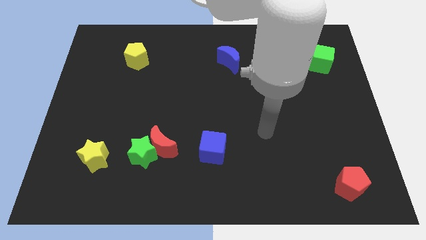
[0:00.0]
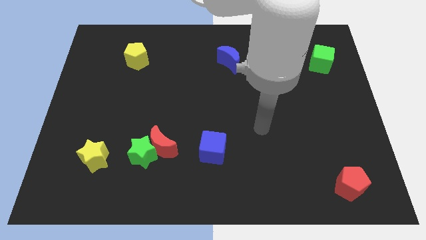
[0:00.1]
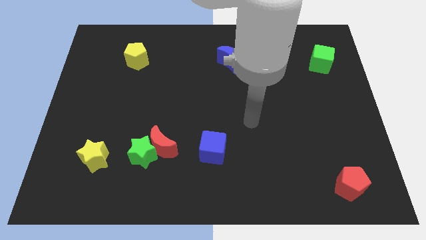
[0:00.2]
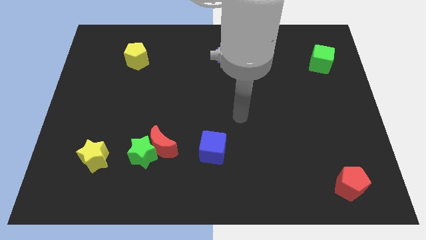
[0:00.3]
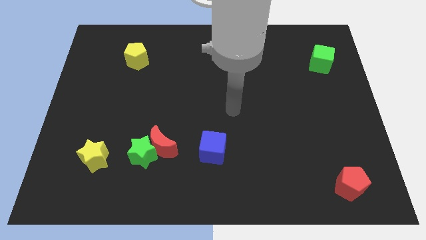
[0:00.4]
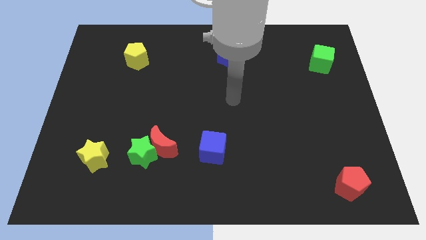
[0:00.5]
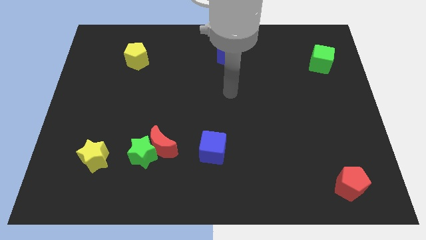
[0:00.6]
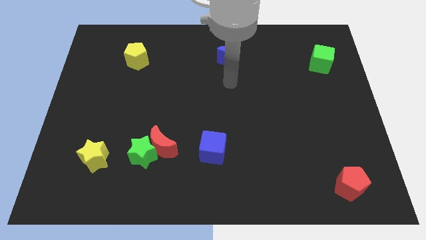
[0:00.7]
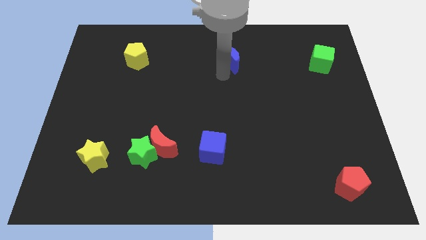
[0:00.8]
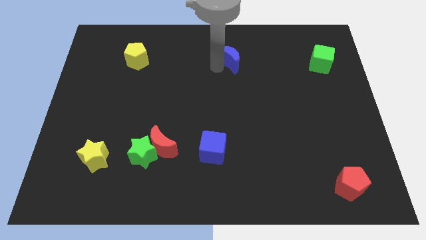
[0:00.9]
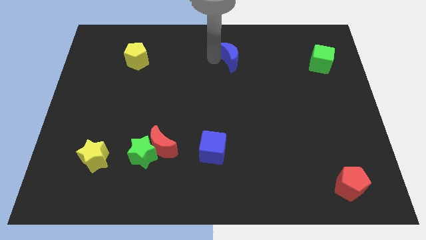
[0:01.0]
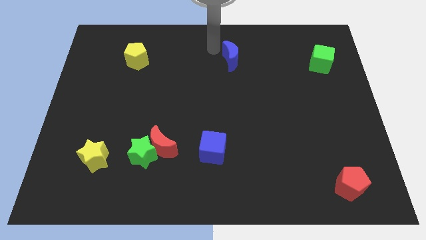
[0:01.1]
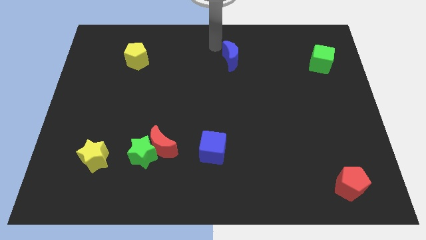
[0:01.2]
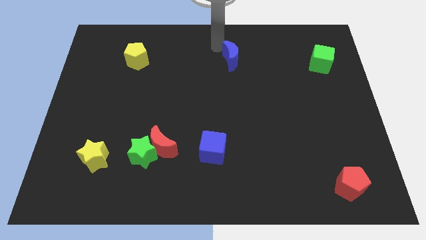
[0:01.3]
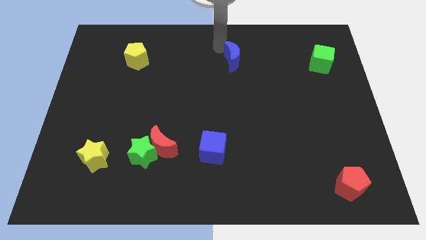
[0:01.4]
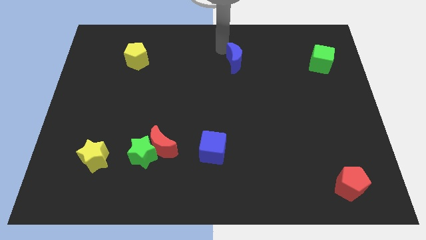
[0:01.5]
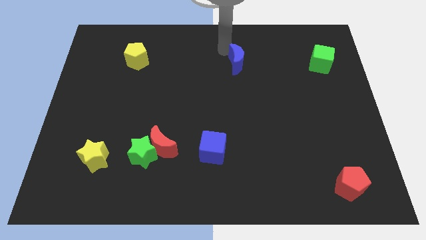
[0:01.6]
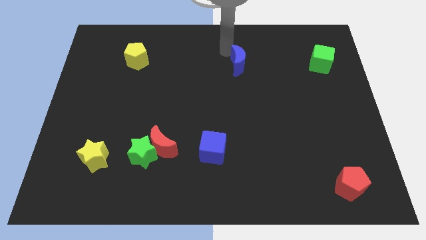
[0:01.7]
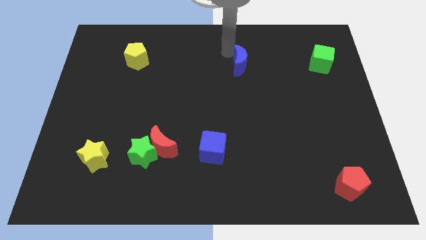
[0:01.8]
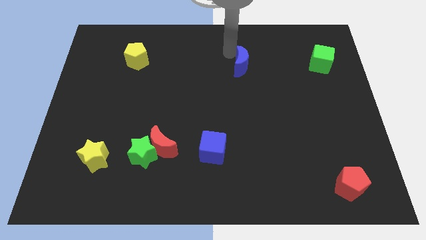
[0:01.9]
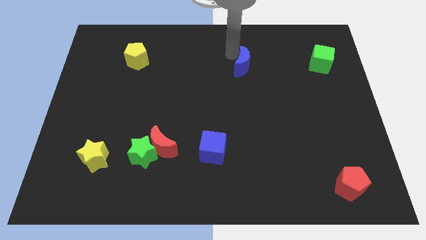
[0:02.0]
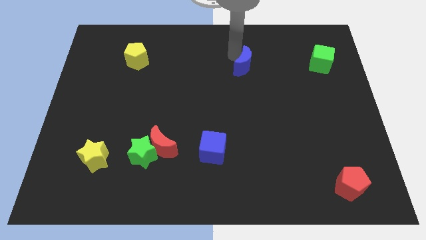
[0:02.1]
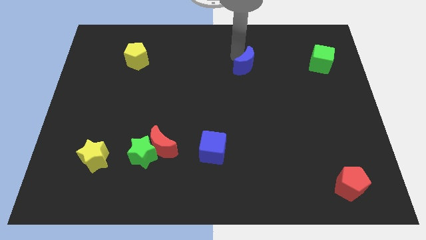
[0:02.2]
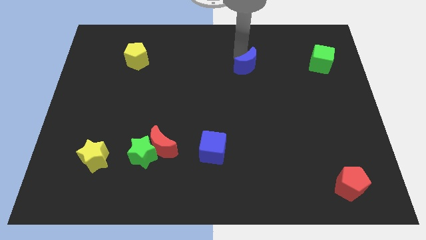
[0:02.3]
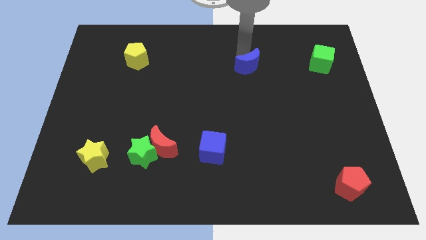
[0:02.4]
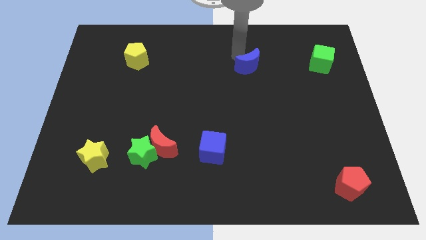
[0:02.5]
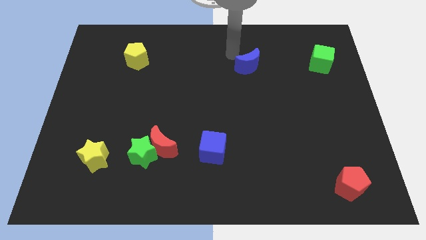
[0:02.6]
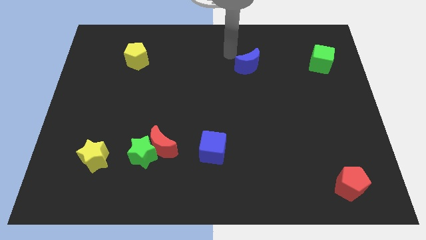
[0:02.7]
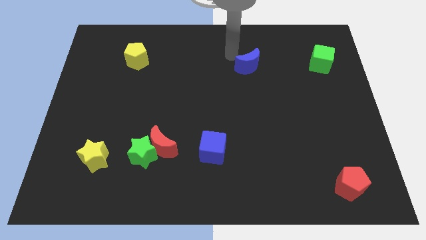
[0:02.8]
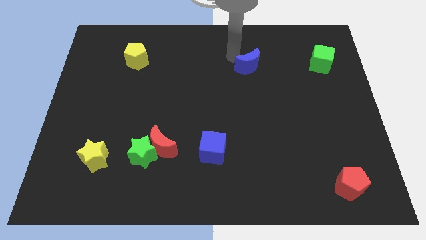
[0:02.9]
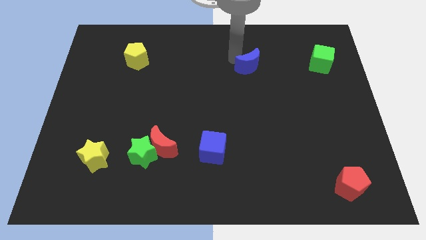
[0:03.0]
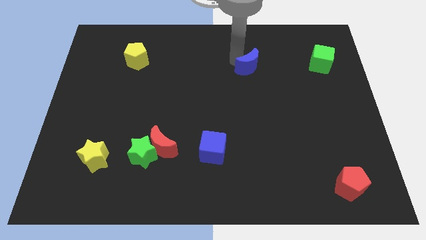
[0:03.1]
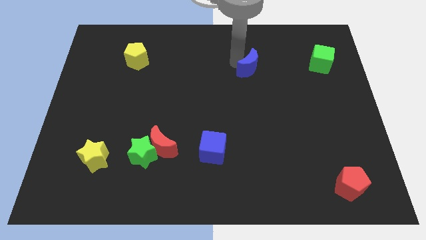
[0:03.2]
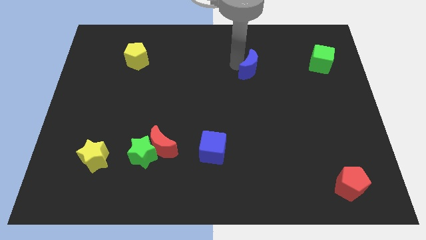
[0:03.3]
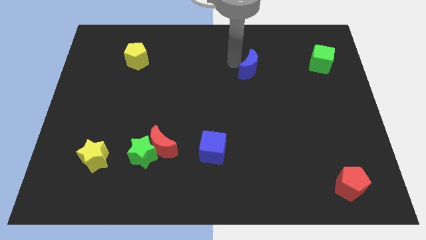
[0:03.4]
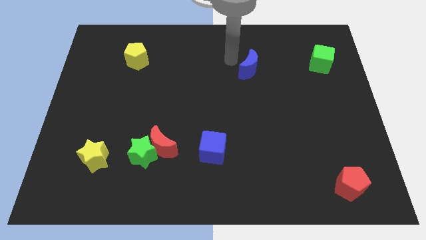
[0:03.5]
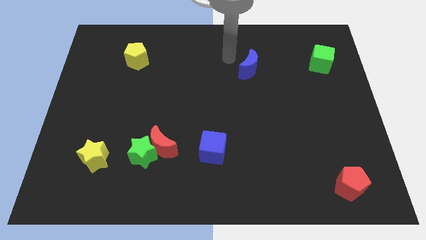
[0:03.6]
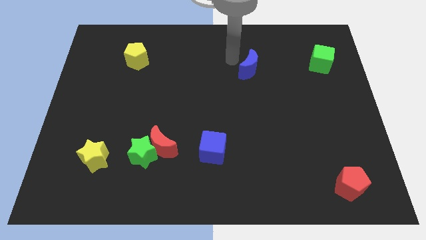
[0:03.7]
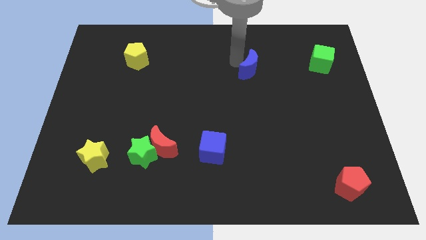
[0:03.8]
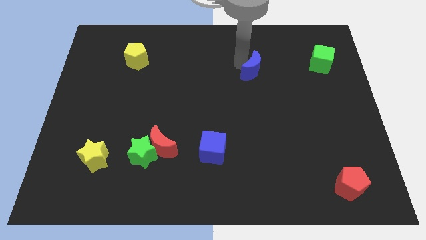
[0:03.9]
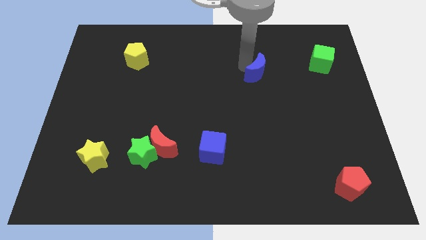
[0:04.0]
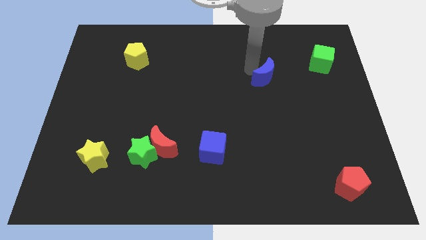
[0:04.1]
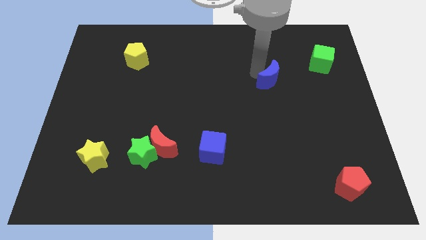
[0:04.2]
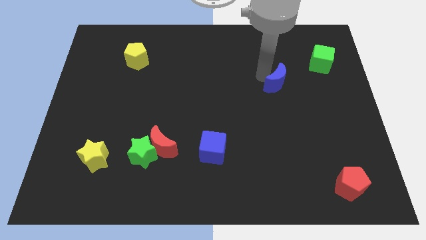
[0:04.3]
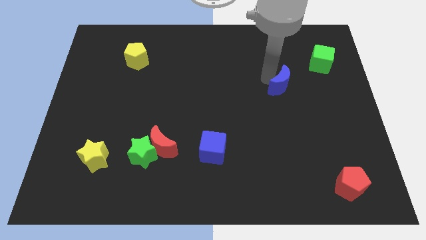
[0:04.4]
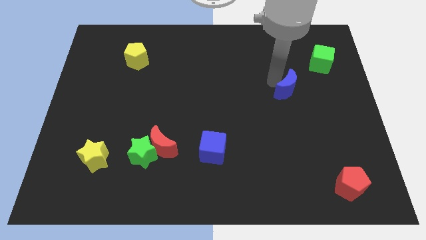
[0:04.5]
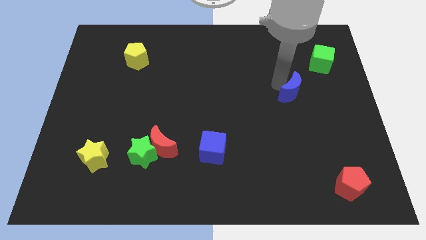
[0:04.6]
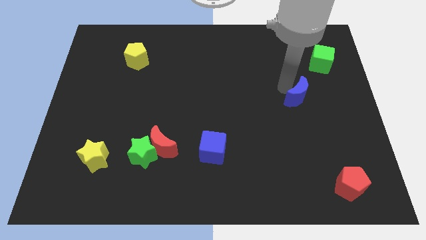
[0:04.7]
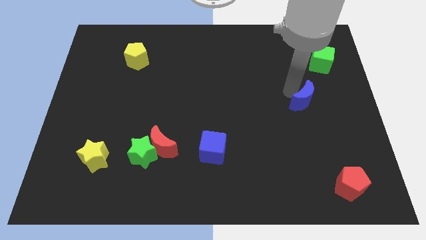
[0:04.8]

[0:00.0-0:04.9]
push the blue moon downwards and then right

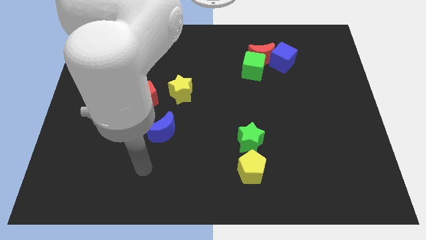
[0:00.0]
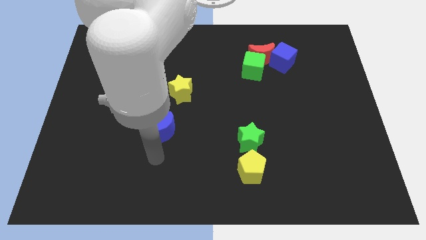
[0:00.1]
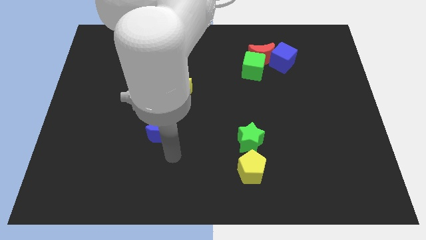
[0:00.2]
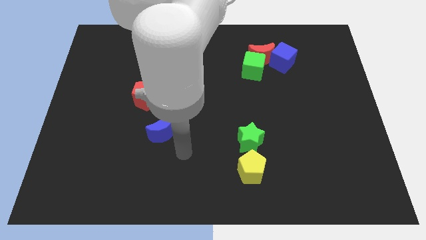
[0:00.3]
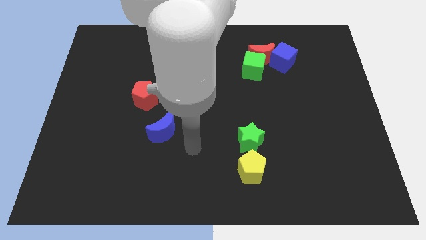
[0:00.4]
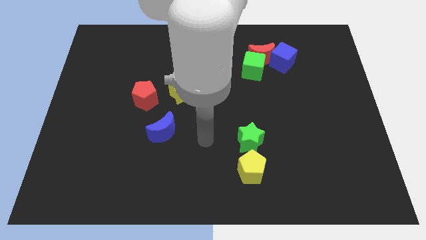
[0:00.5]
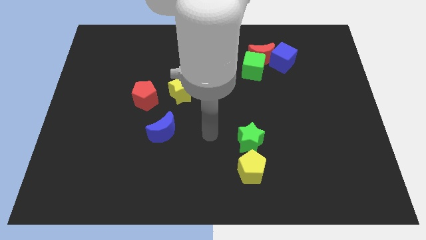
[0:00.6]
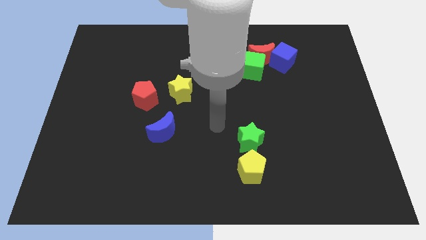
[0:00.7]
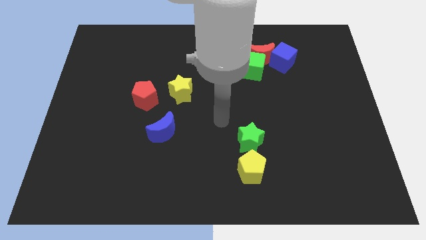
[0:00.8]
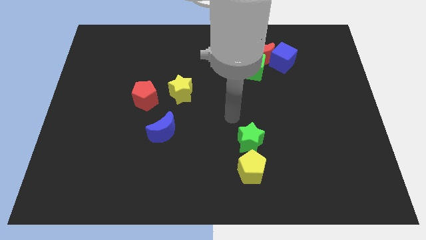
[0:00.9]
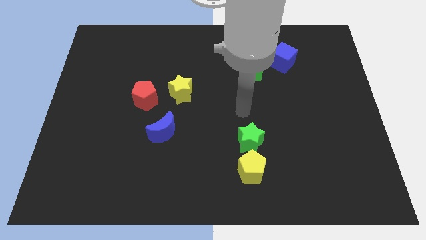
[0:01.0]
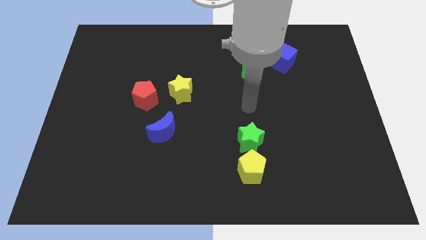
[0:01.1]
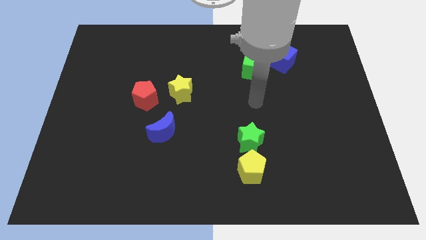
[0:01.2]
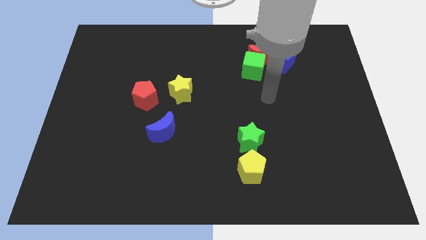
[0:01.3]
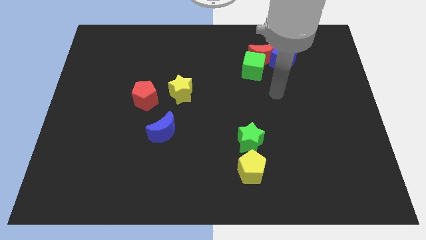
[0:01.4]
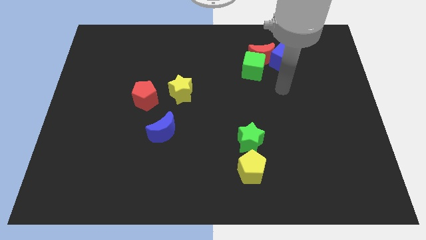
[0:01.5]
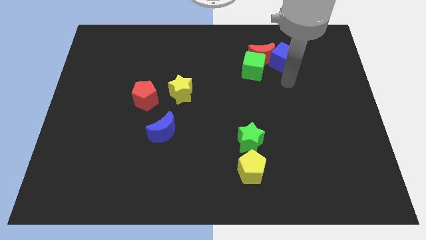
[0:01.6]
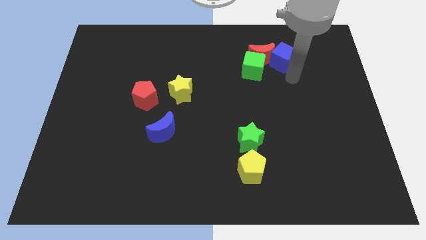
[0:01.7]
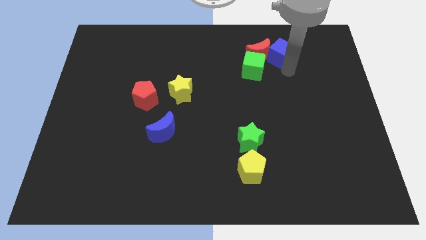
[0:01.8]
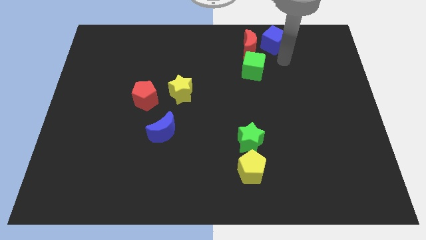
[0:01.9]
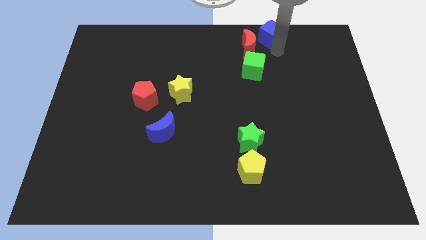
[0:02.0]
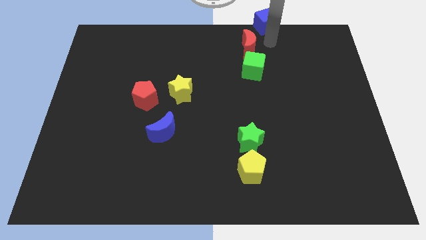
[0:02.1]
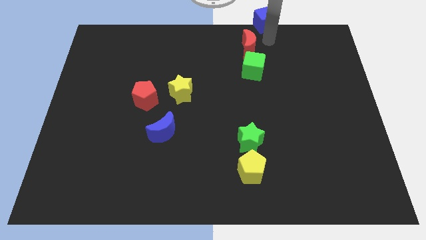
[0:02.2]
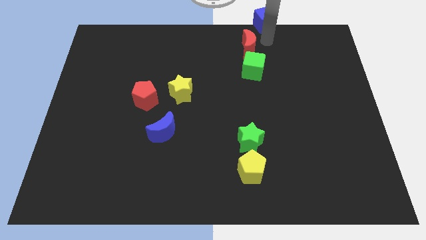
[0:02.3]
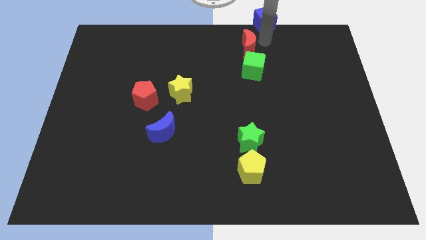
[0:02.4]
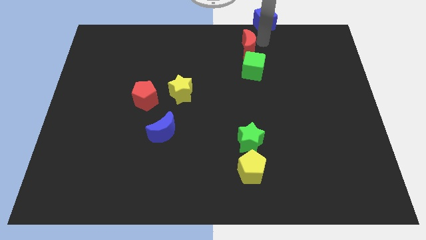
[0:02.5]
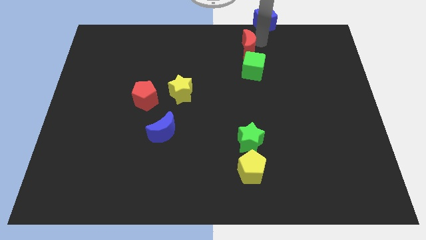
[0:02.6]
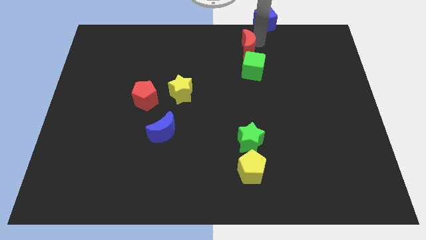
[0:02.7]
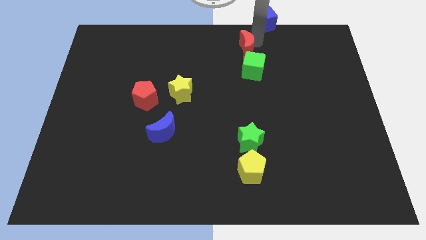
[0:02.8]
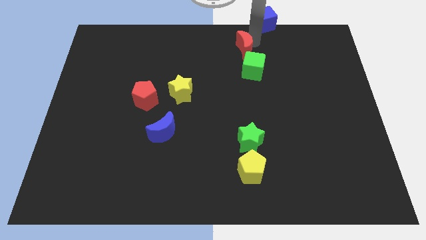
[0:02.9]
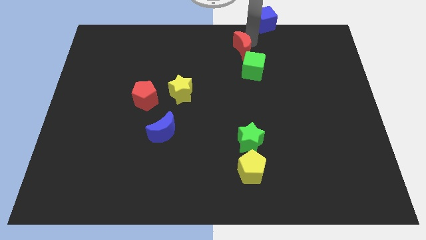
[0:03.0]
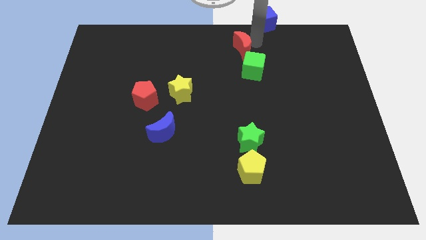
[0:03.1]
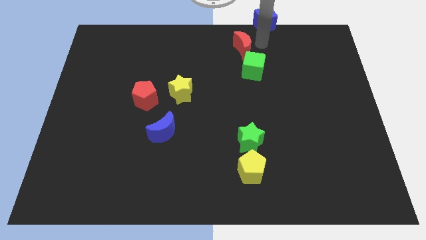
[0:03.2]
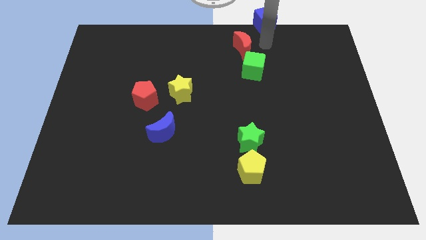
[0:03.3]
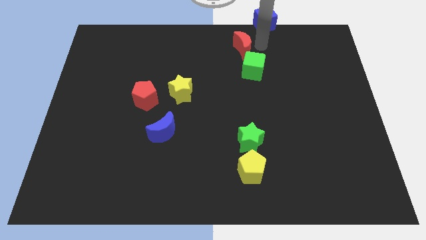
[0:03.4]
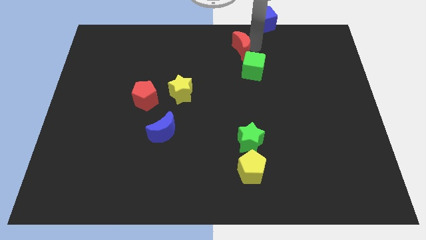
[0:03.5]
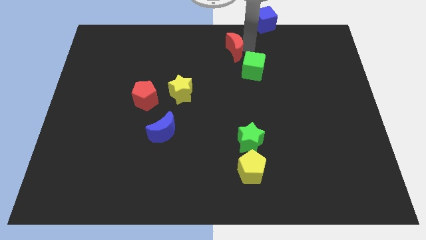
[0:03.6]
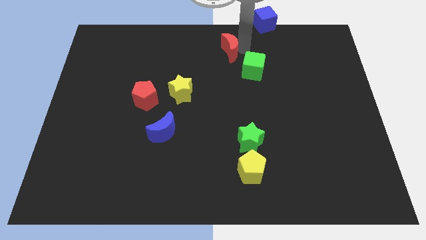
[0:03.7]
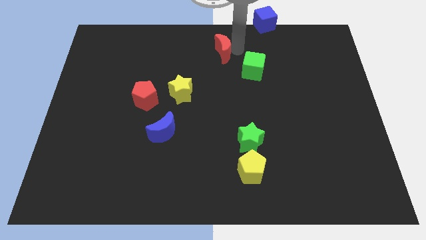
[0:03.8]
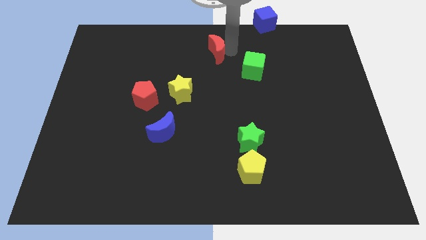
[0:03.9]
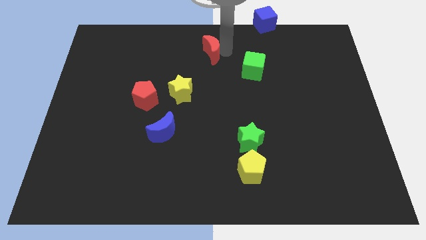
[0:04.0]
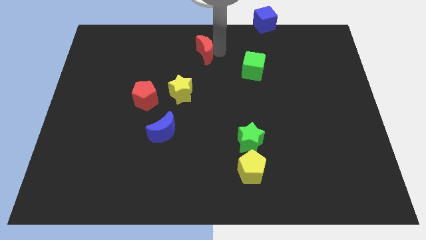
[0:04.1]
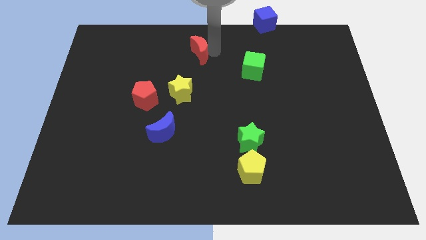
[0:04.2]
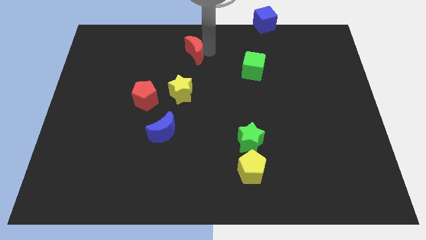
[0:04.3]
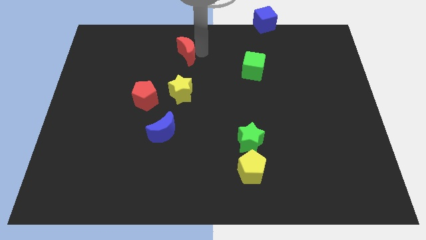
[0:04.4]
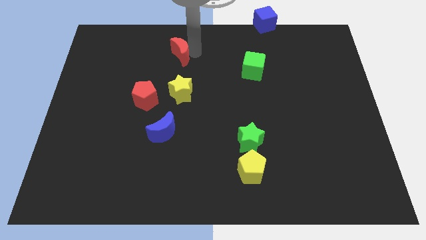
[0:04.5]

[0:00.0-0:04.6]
move the red moon to the left
